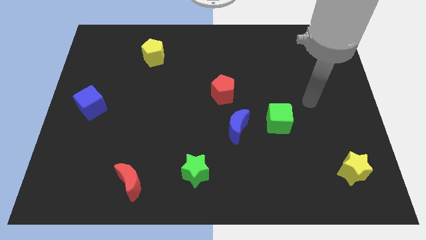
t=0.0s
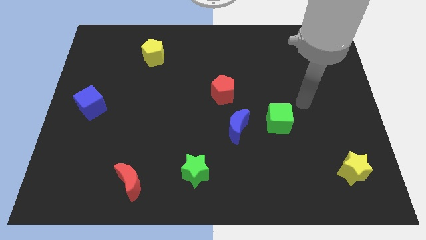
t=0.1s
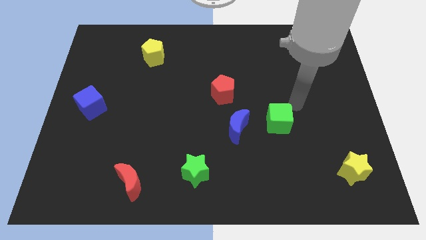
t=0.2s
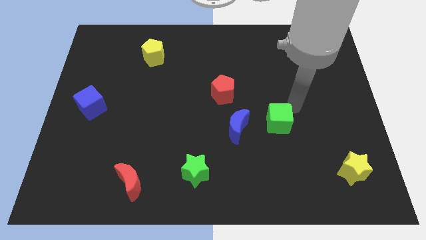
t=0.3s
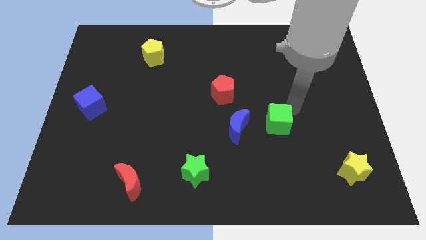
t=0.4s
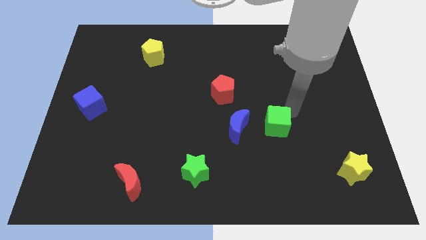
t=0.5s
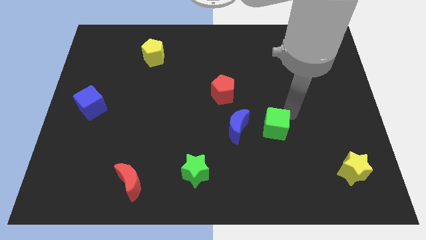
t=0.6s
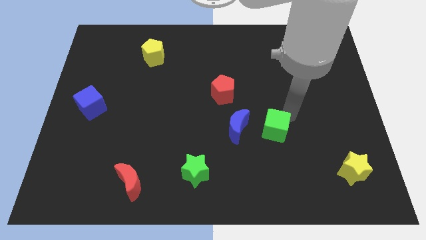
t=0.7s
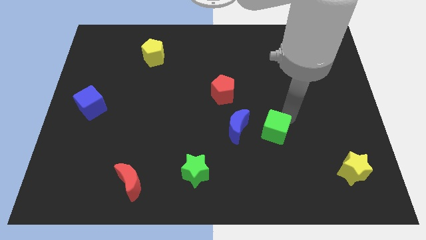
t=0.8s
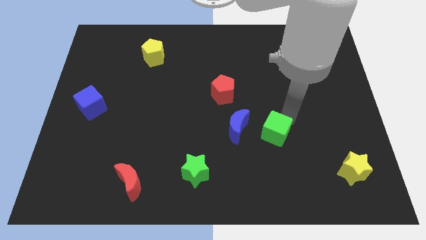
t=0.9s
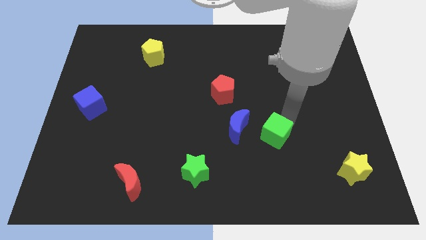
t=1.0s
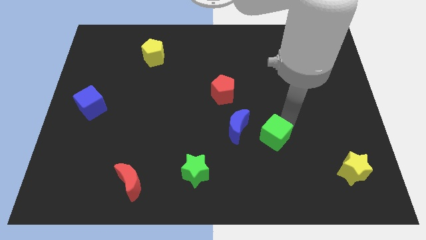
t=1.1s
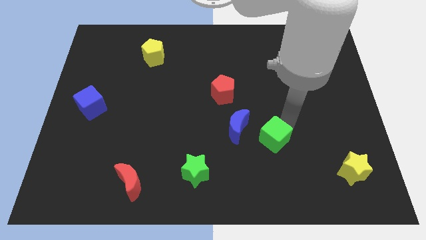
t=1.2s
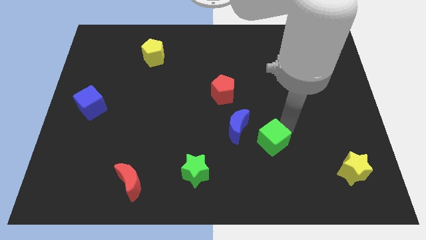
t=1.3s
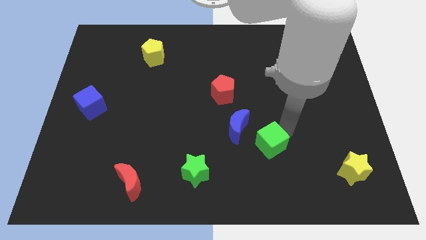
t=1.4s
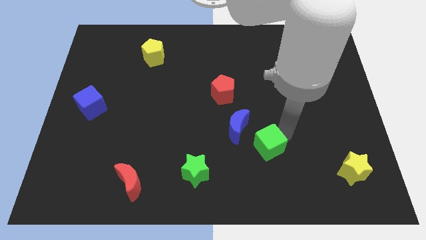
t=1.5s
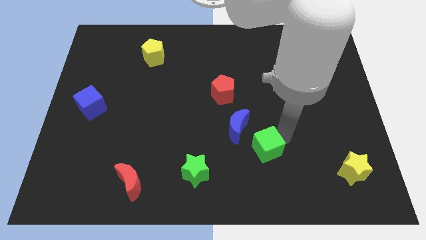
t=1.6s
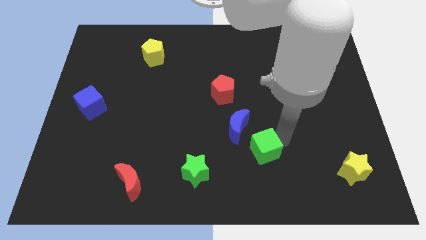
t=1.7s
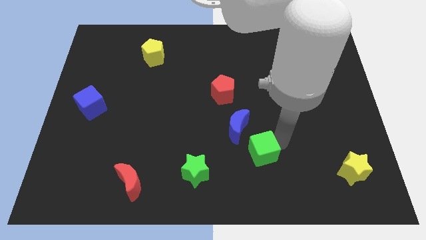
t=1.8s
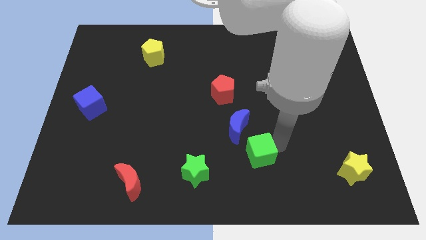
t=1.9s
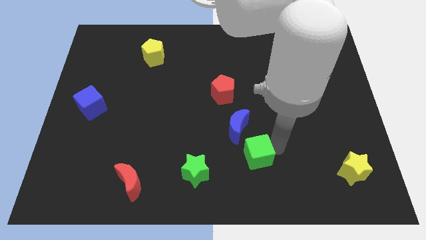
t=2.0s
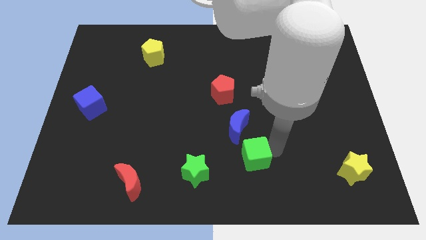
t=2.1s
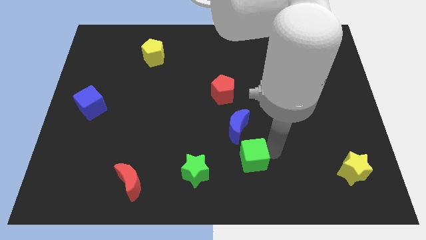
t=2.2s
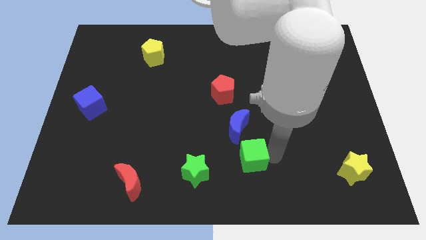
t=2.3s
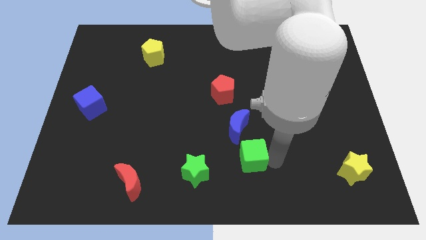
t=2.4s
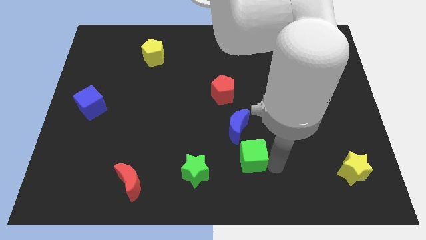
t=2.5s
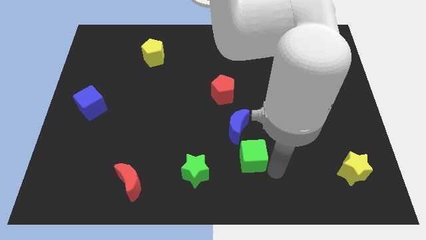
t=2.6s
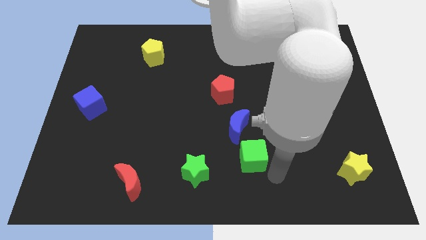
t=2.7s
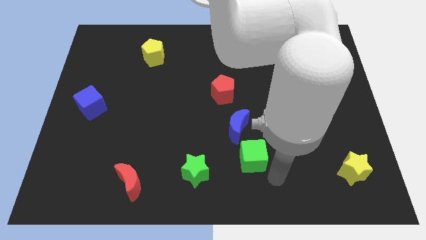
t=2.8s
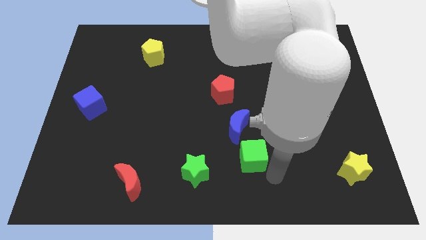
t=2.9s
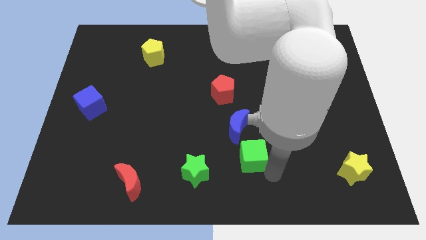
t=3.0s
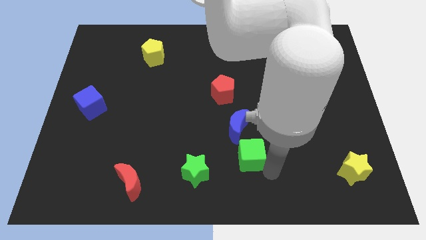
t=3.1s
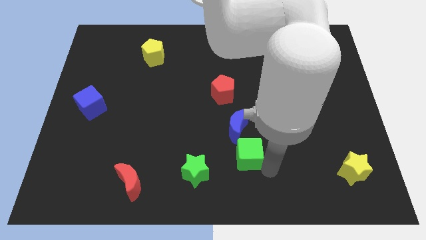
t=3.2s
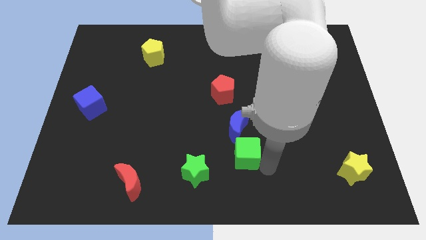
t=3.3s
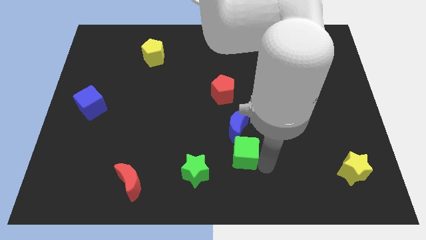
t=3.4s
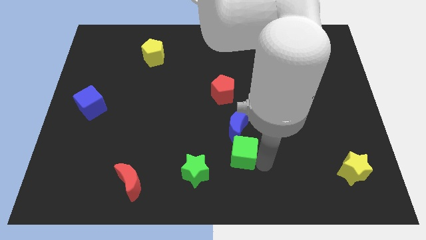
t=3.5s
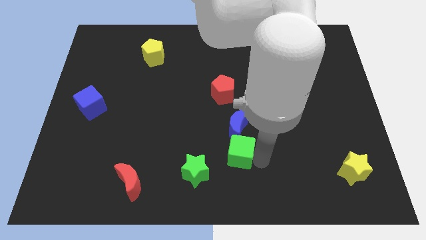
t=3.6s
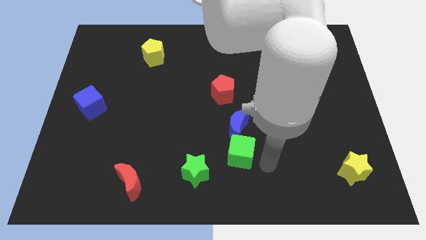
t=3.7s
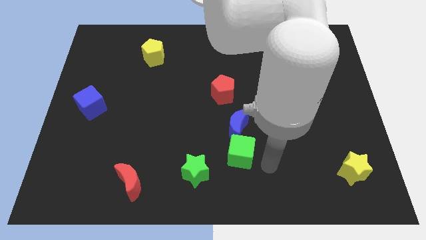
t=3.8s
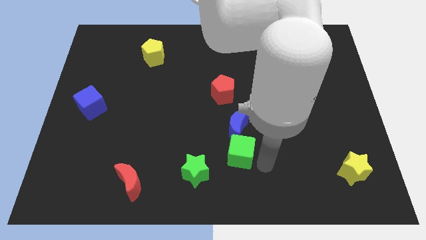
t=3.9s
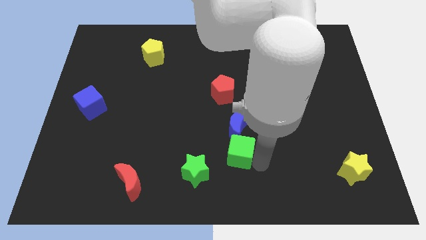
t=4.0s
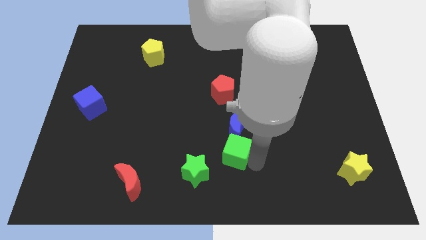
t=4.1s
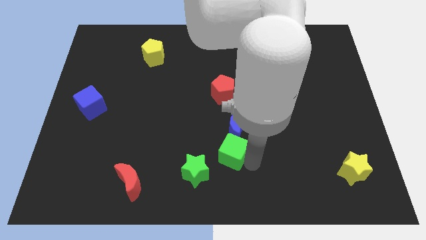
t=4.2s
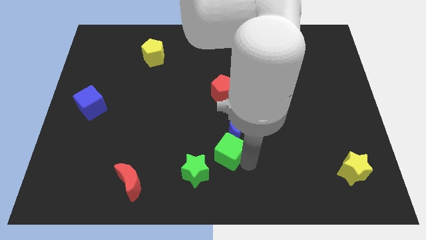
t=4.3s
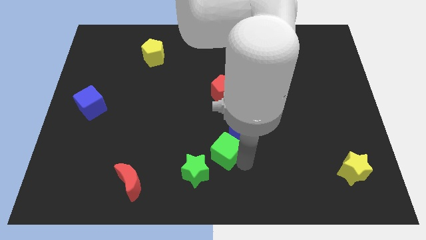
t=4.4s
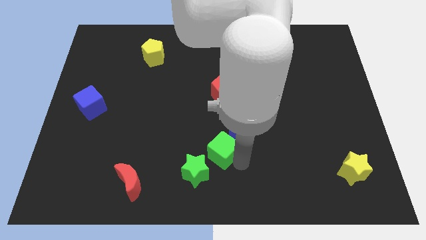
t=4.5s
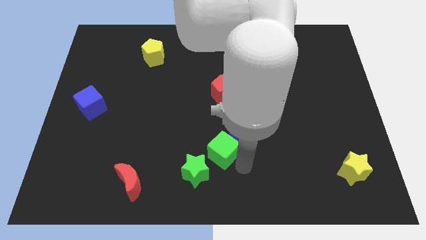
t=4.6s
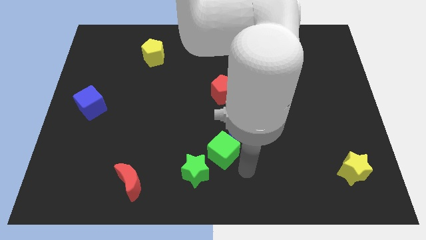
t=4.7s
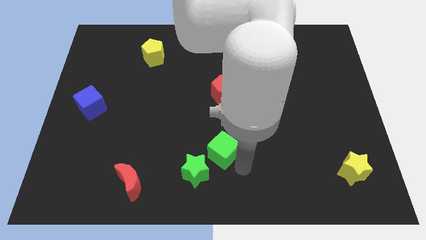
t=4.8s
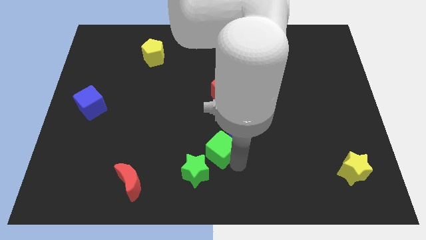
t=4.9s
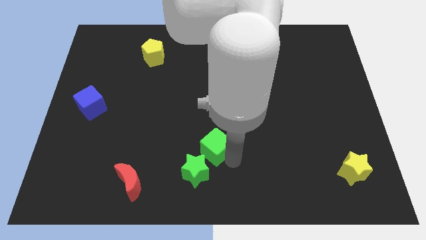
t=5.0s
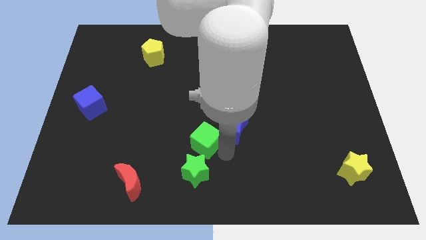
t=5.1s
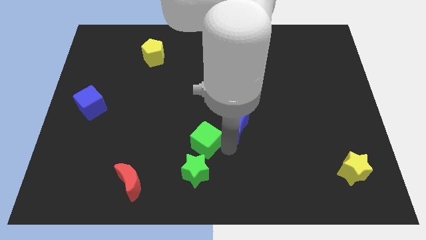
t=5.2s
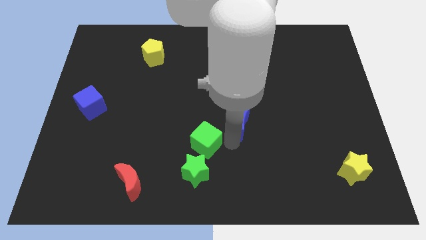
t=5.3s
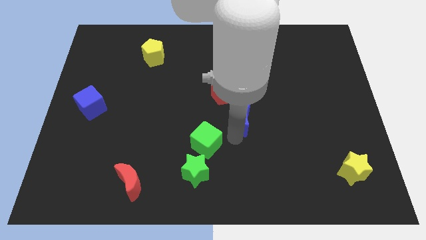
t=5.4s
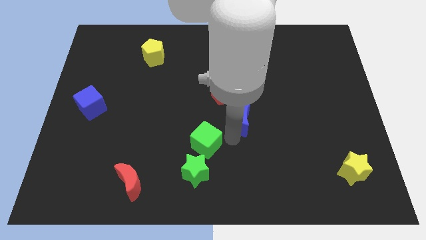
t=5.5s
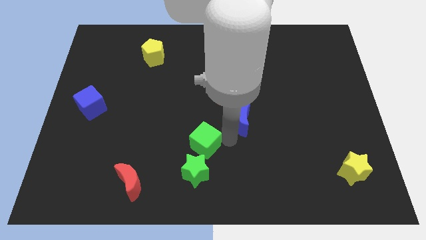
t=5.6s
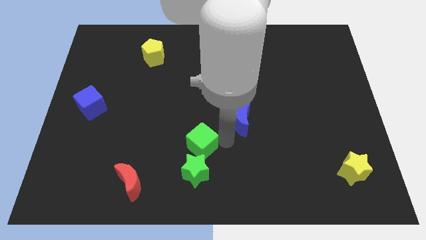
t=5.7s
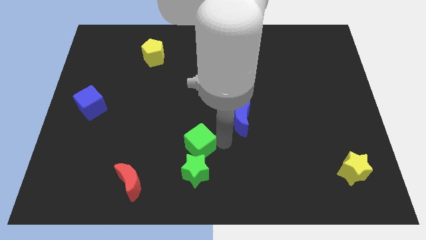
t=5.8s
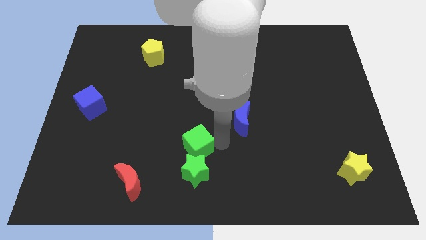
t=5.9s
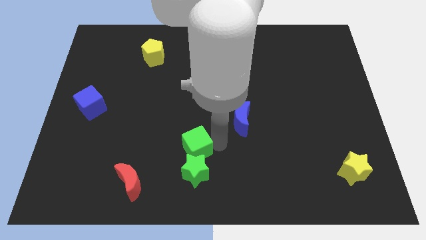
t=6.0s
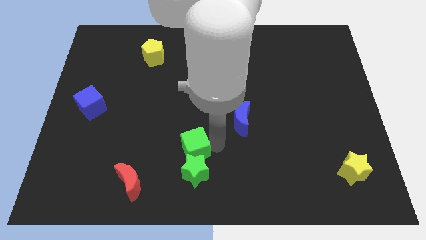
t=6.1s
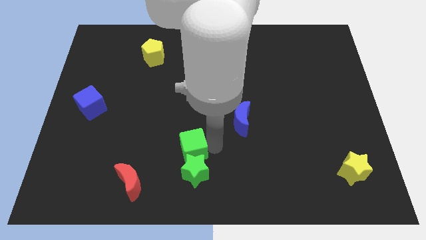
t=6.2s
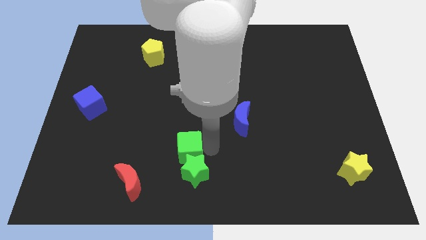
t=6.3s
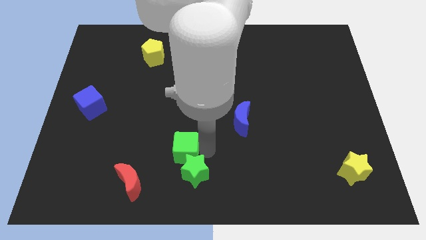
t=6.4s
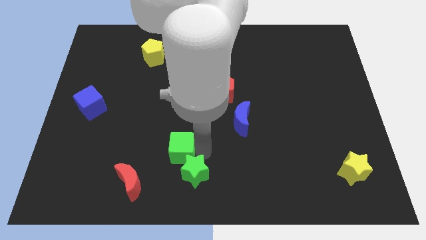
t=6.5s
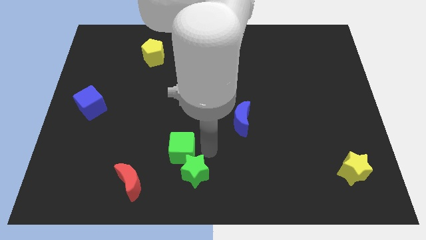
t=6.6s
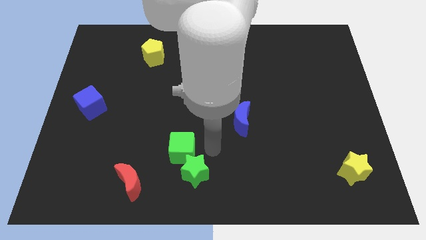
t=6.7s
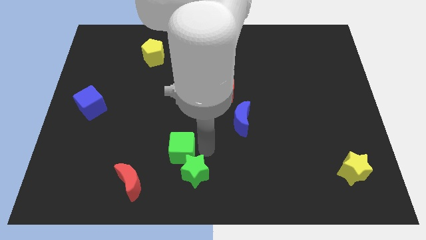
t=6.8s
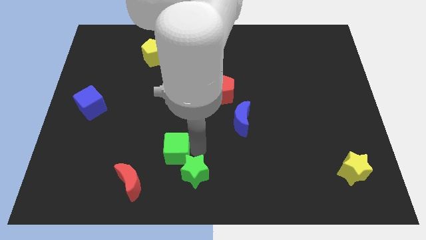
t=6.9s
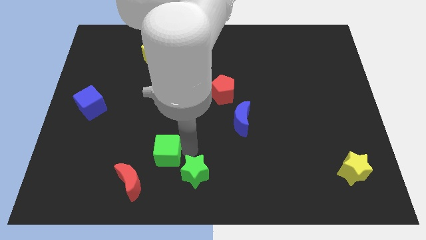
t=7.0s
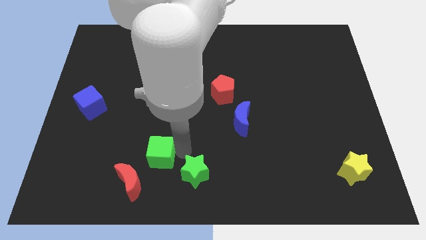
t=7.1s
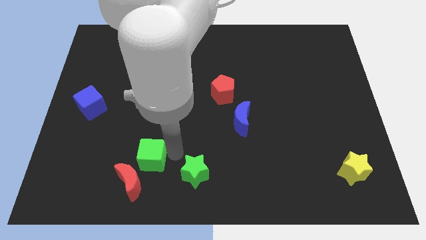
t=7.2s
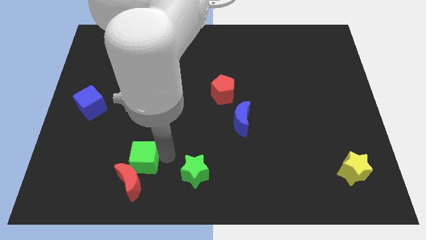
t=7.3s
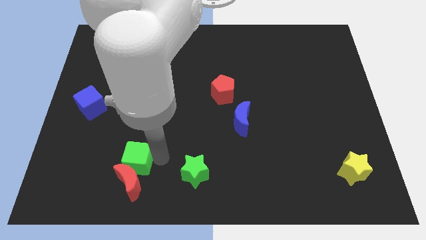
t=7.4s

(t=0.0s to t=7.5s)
push the green cube diagonally up and to the left of the red moon
